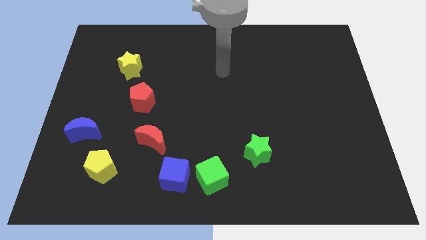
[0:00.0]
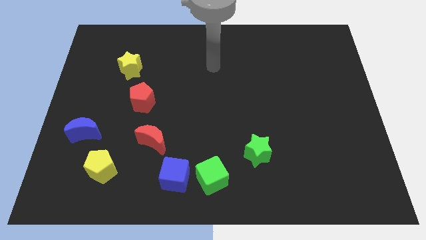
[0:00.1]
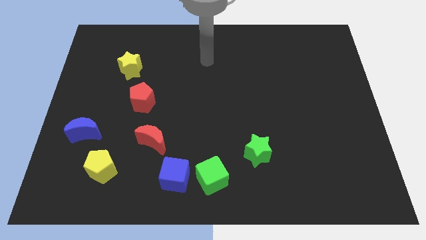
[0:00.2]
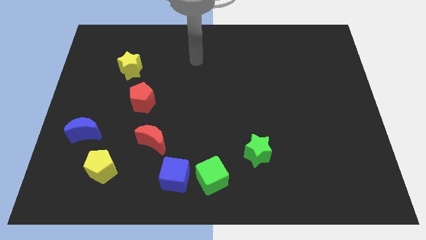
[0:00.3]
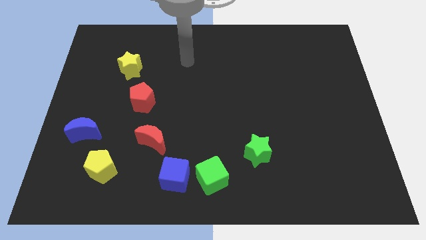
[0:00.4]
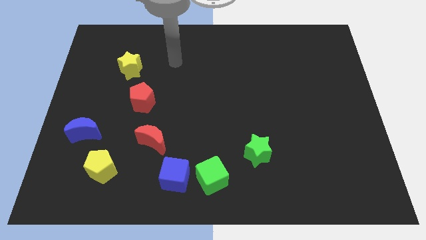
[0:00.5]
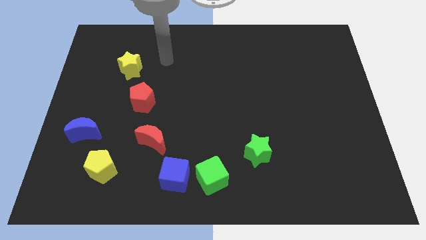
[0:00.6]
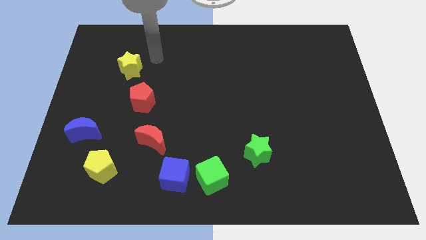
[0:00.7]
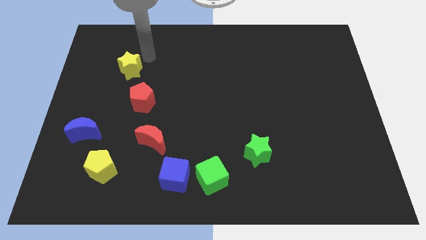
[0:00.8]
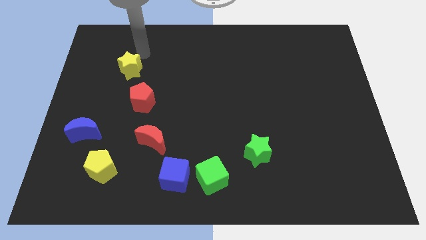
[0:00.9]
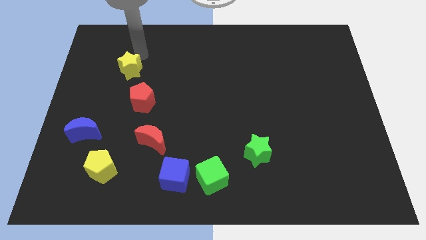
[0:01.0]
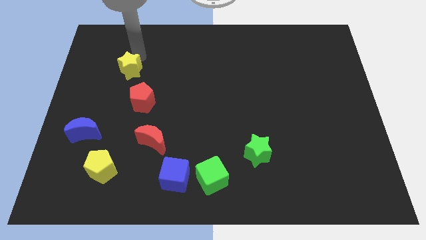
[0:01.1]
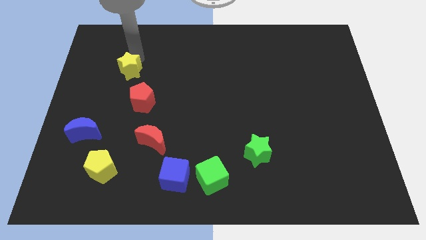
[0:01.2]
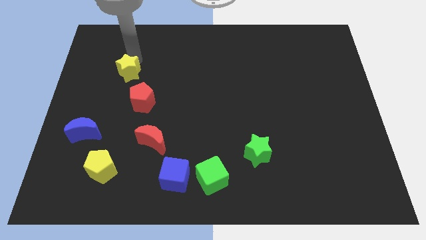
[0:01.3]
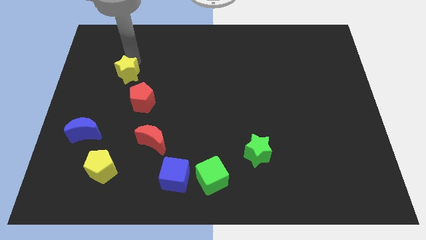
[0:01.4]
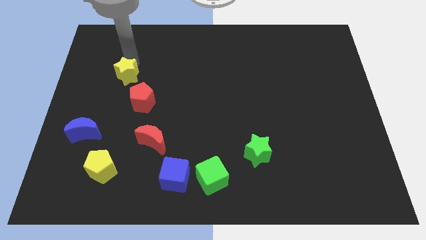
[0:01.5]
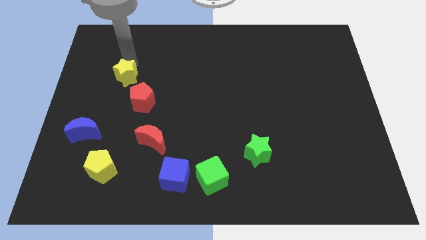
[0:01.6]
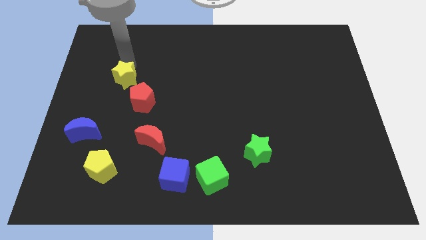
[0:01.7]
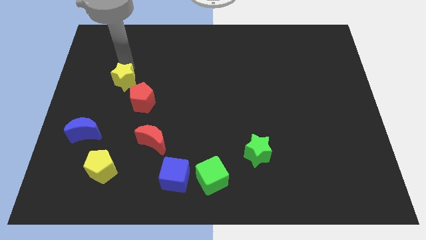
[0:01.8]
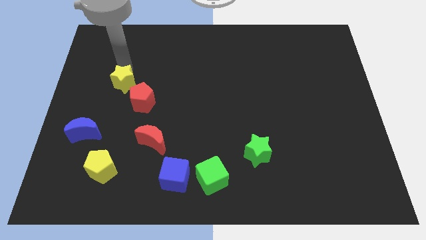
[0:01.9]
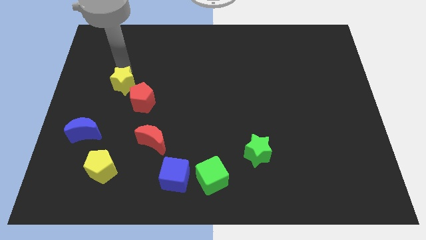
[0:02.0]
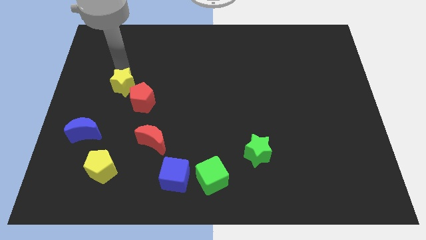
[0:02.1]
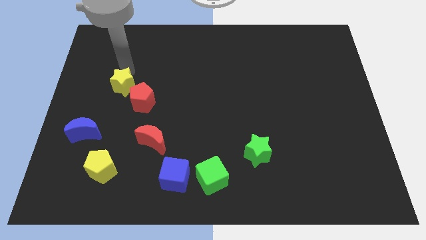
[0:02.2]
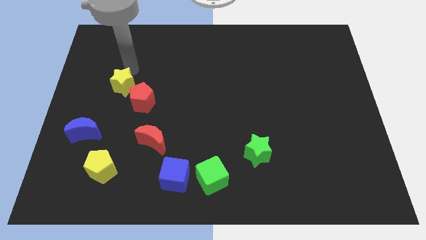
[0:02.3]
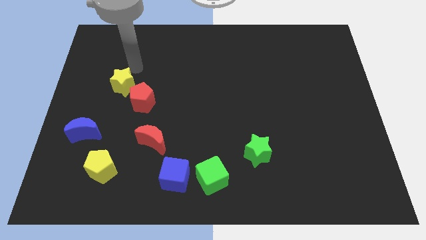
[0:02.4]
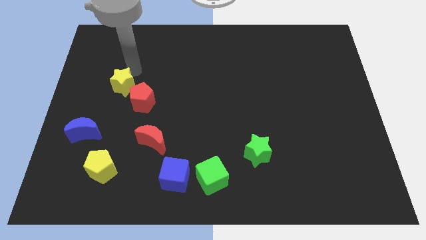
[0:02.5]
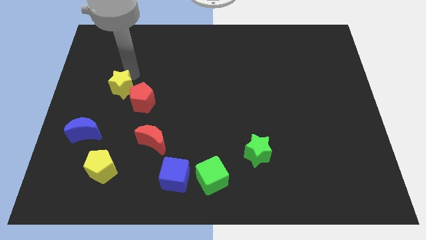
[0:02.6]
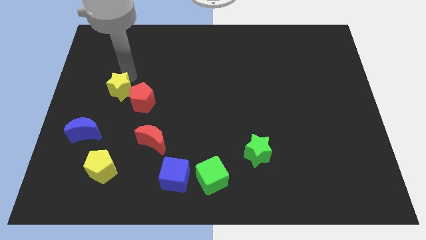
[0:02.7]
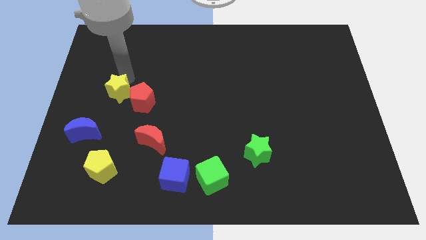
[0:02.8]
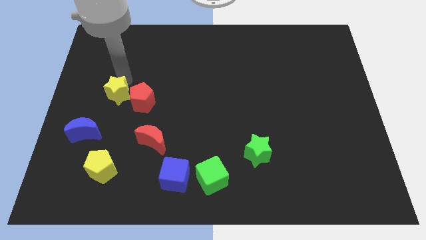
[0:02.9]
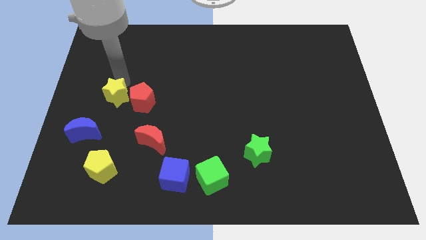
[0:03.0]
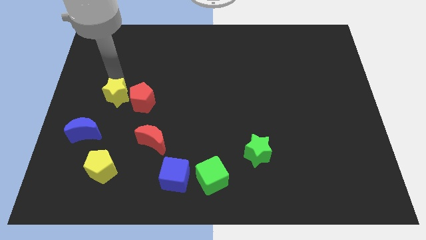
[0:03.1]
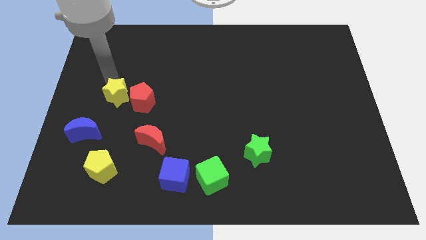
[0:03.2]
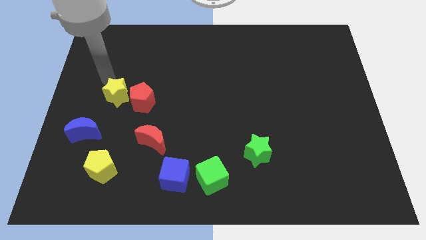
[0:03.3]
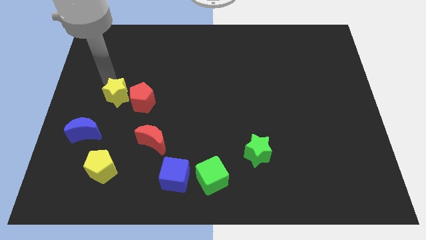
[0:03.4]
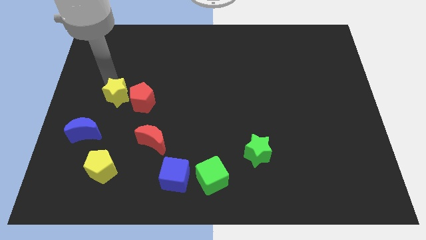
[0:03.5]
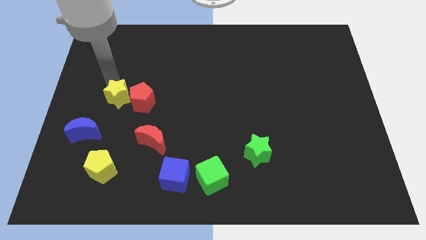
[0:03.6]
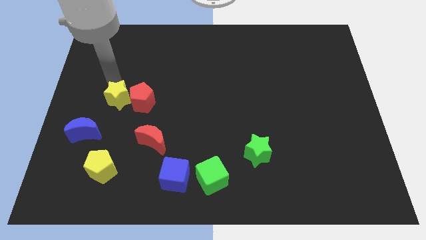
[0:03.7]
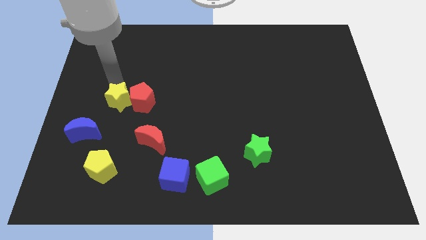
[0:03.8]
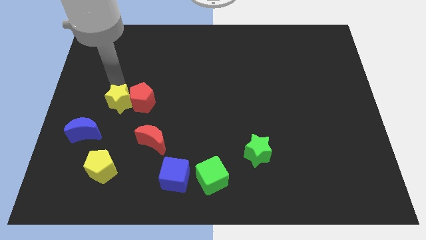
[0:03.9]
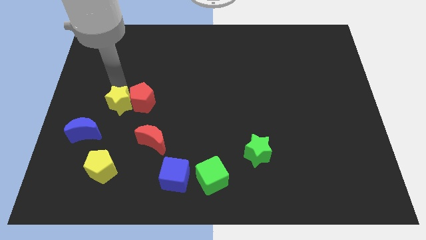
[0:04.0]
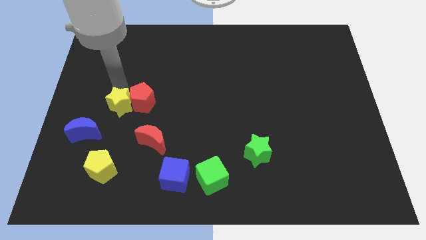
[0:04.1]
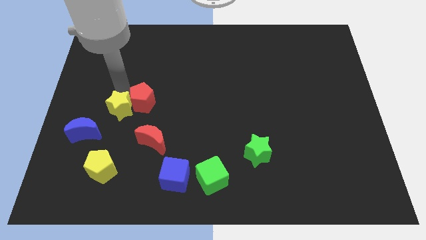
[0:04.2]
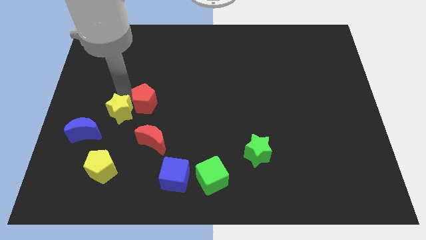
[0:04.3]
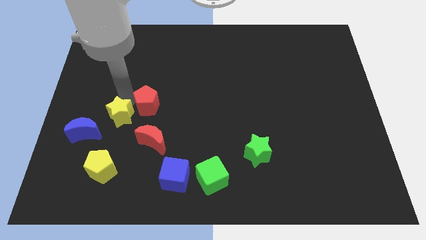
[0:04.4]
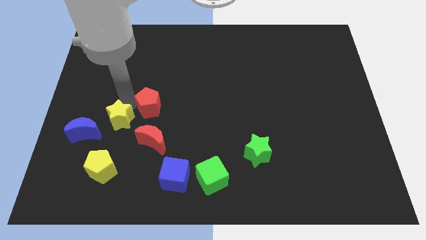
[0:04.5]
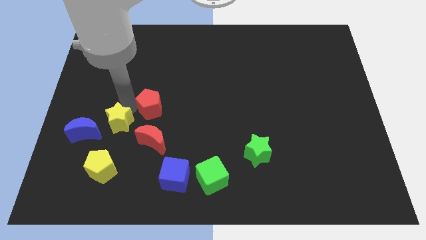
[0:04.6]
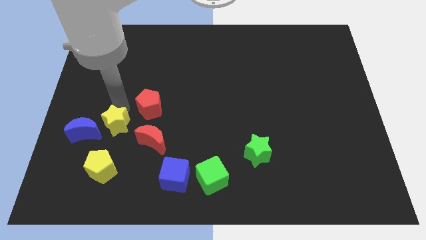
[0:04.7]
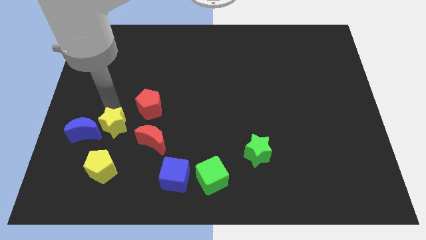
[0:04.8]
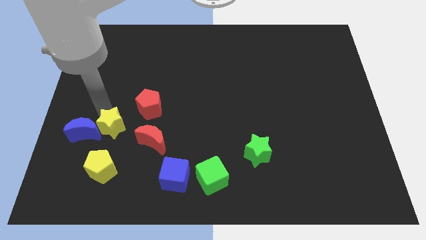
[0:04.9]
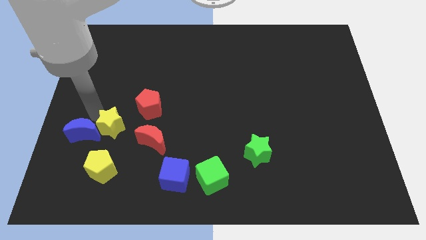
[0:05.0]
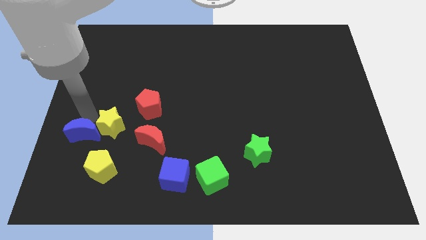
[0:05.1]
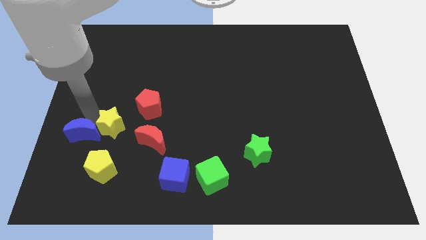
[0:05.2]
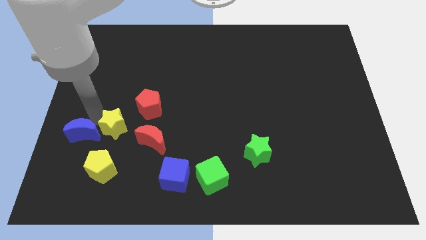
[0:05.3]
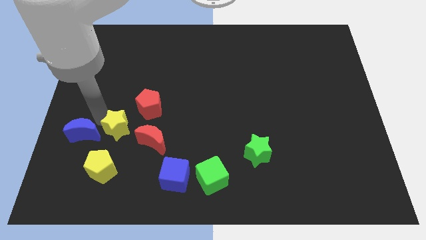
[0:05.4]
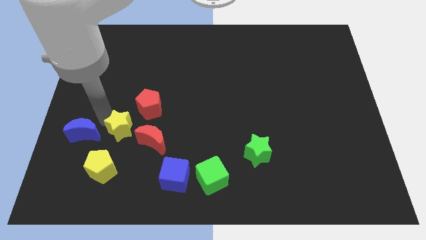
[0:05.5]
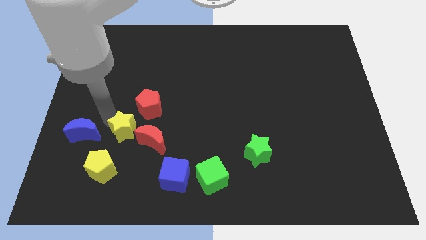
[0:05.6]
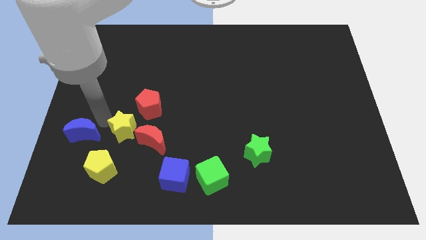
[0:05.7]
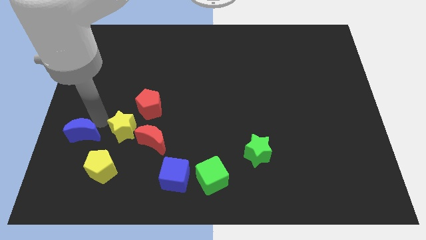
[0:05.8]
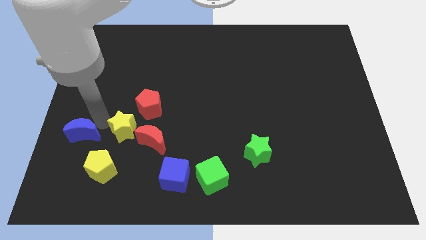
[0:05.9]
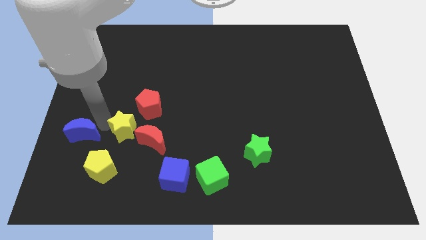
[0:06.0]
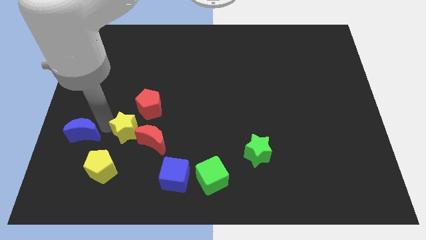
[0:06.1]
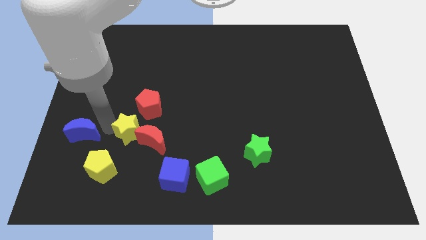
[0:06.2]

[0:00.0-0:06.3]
push the yellow star to the red moon

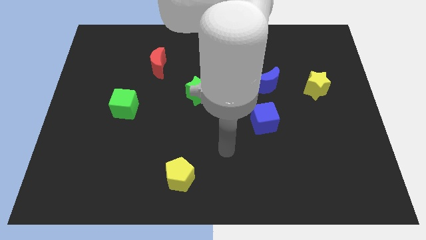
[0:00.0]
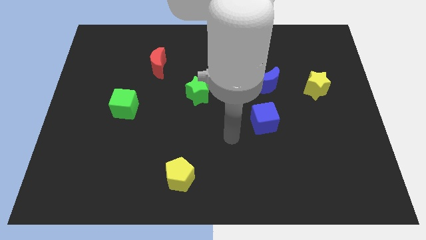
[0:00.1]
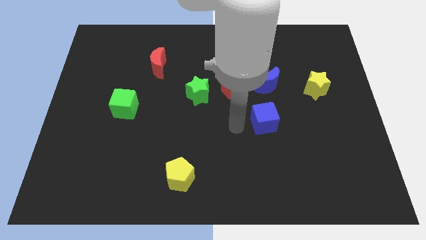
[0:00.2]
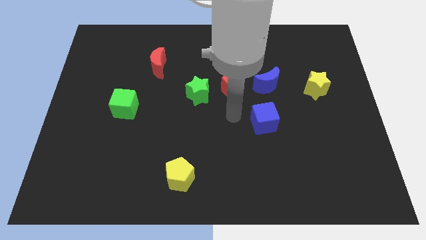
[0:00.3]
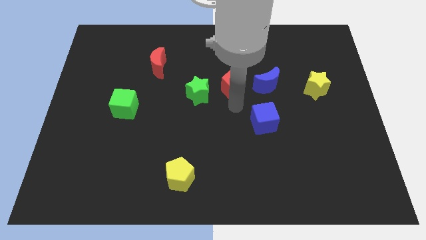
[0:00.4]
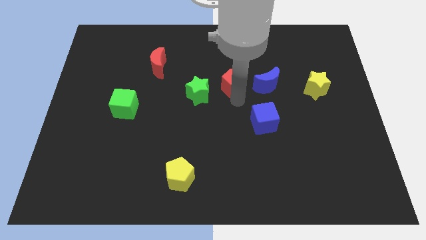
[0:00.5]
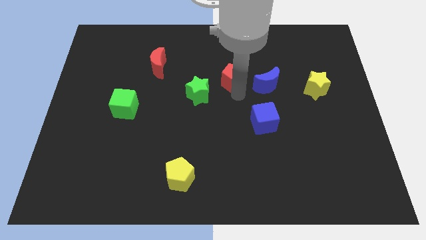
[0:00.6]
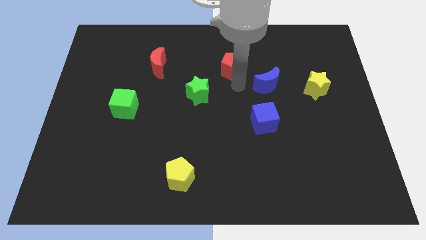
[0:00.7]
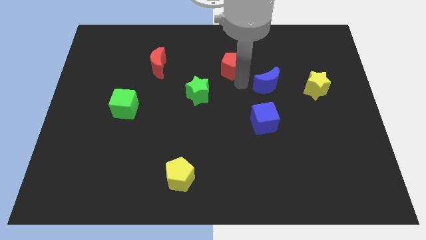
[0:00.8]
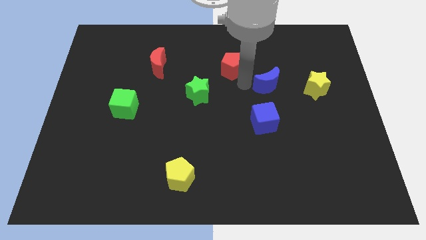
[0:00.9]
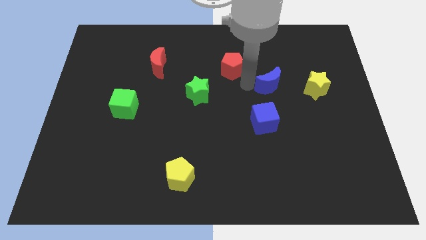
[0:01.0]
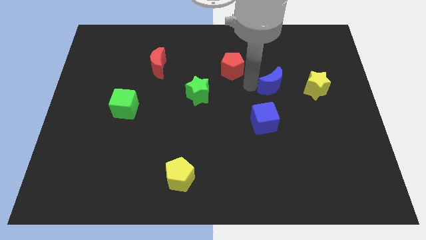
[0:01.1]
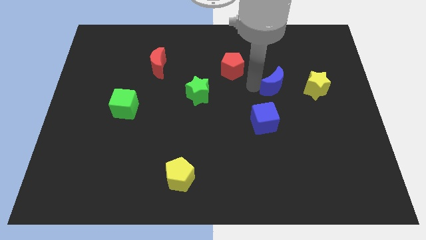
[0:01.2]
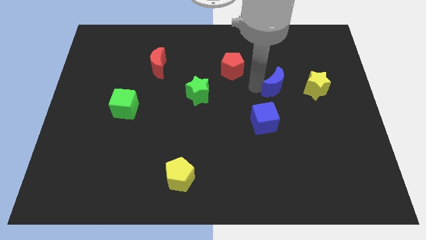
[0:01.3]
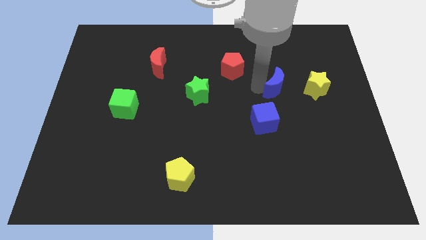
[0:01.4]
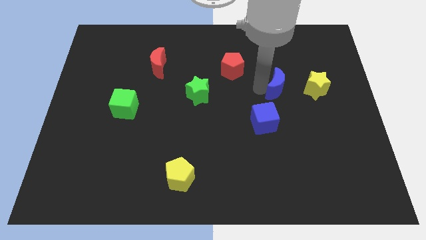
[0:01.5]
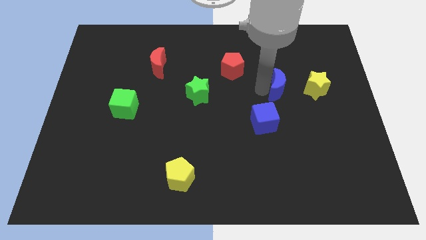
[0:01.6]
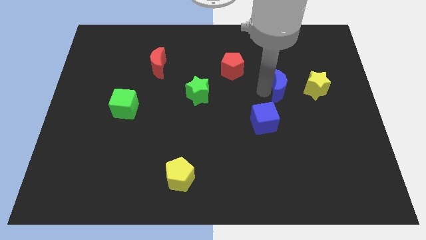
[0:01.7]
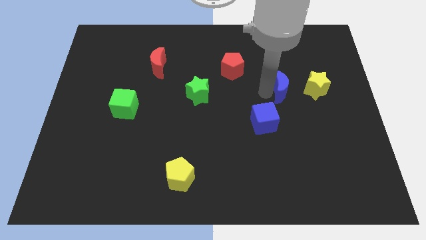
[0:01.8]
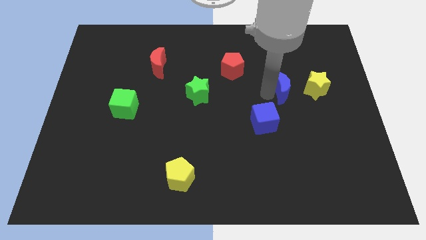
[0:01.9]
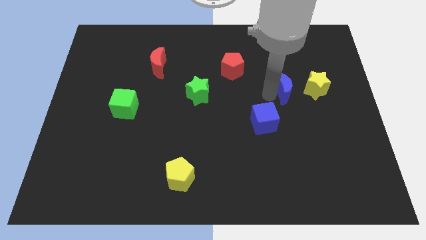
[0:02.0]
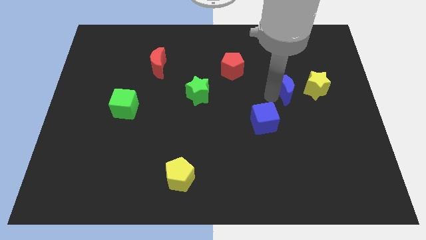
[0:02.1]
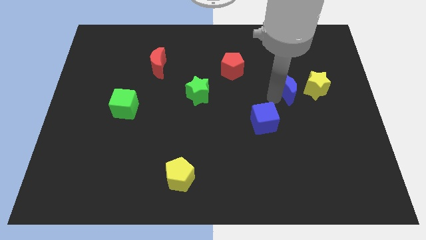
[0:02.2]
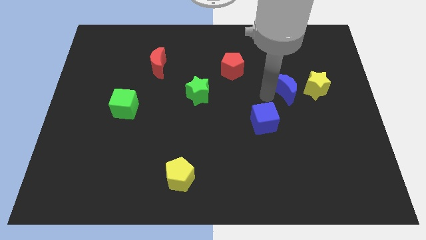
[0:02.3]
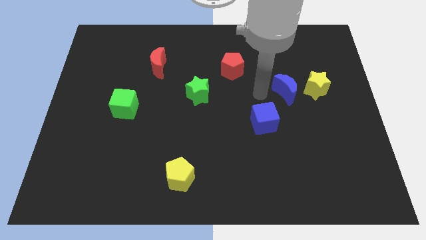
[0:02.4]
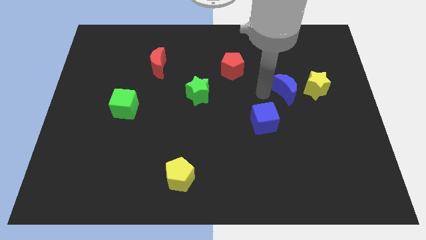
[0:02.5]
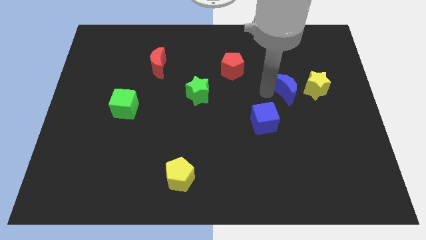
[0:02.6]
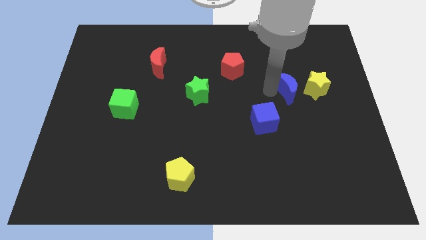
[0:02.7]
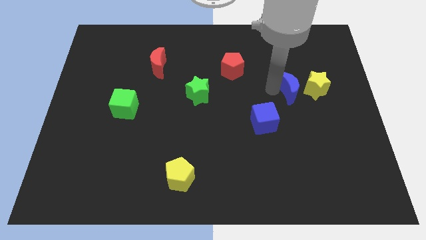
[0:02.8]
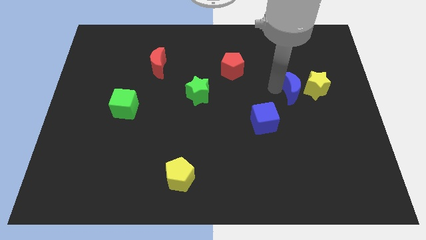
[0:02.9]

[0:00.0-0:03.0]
slide the blue moon towards the yellow star
